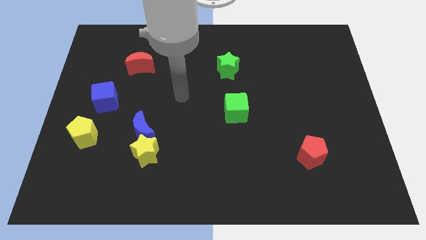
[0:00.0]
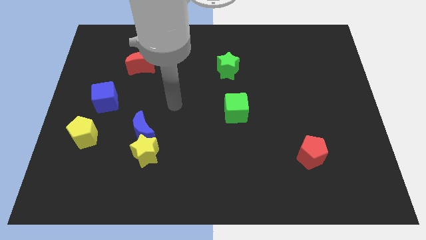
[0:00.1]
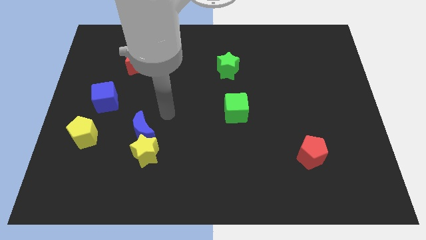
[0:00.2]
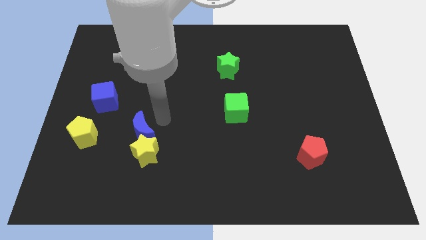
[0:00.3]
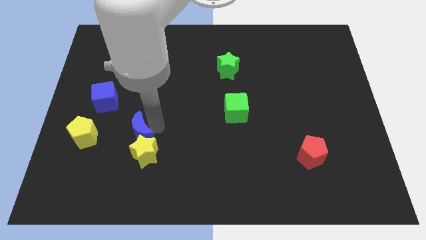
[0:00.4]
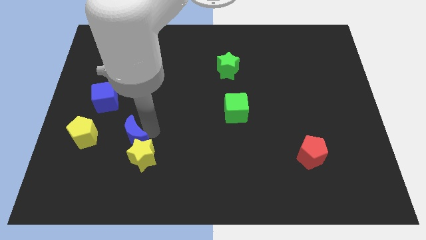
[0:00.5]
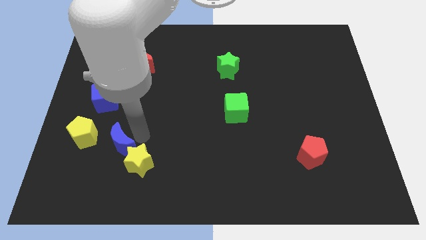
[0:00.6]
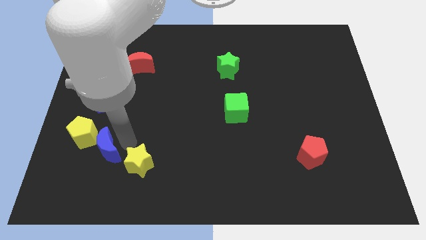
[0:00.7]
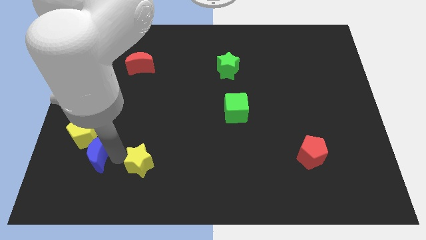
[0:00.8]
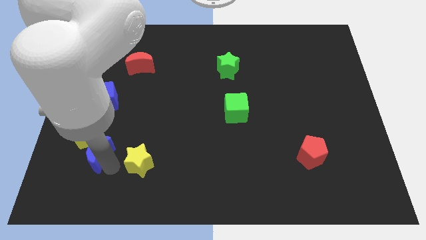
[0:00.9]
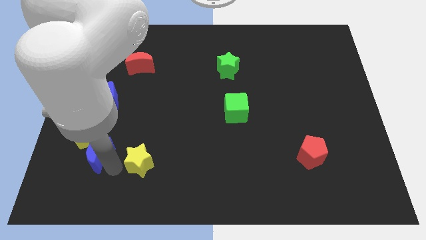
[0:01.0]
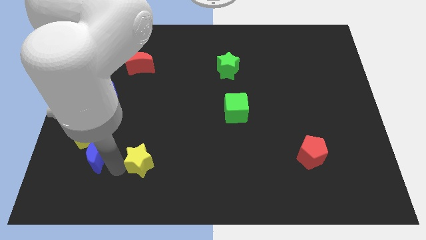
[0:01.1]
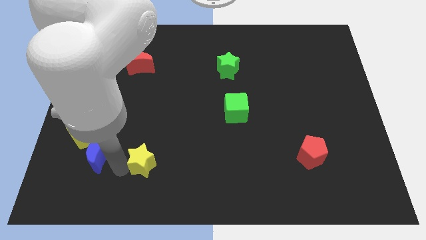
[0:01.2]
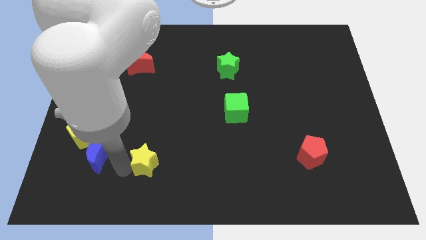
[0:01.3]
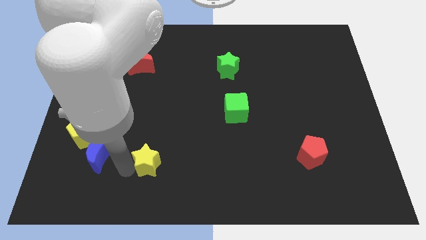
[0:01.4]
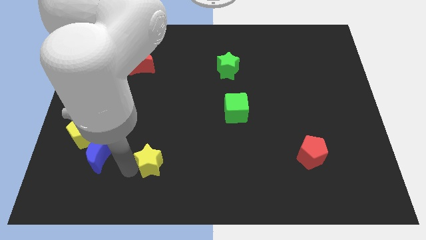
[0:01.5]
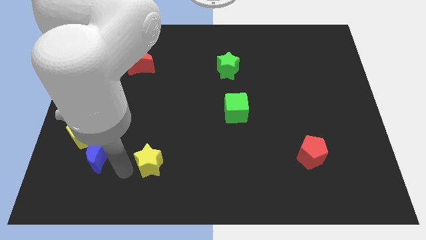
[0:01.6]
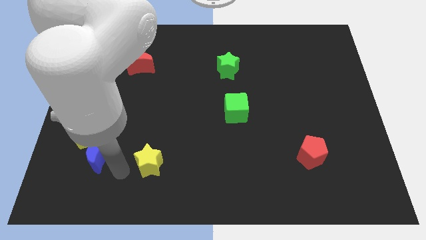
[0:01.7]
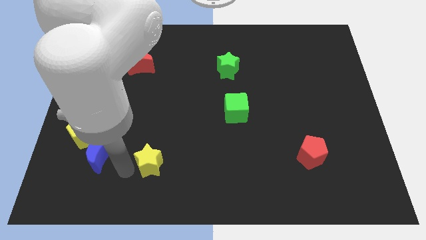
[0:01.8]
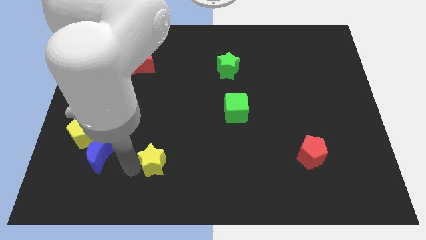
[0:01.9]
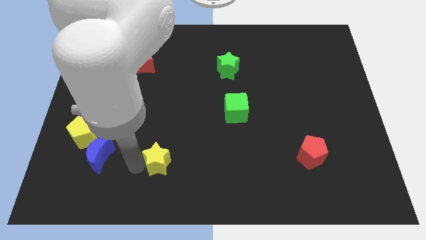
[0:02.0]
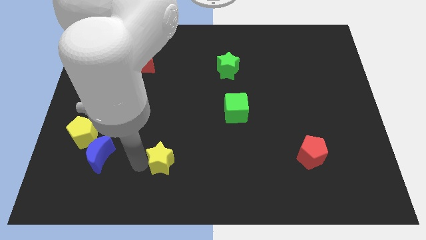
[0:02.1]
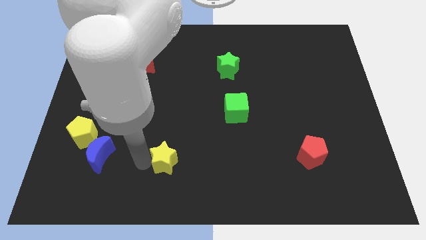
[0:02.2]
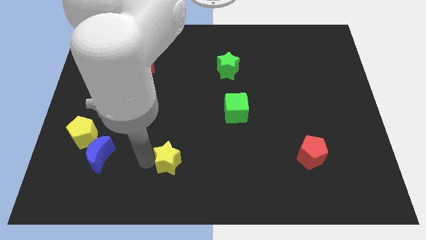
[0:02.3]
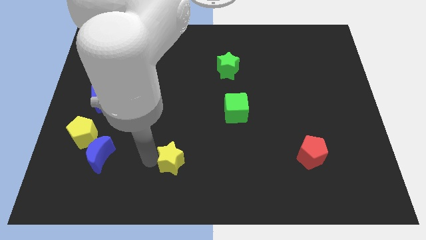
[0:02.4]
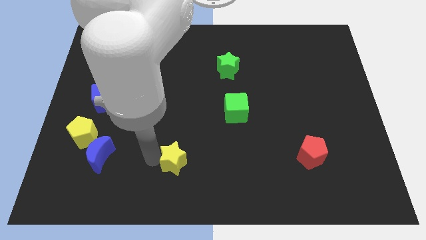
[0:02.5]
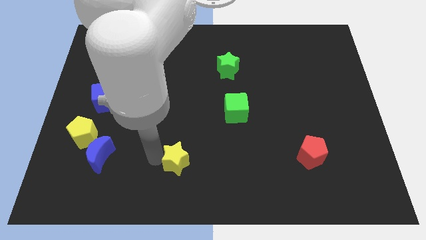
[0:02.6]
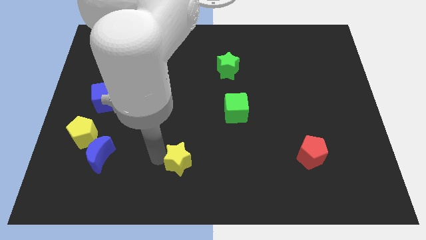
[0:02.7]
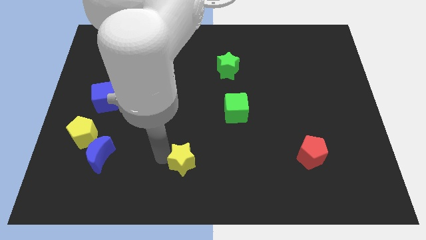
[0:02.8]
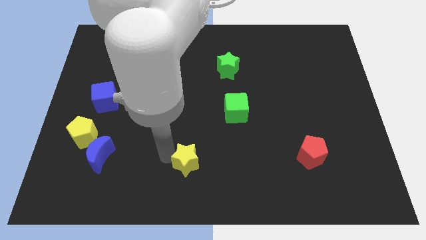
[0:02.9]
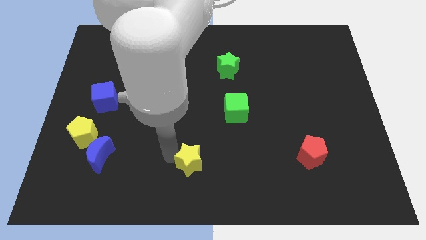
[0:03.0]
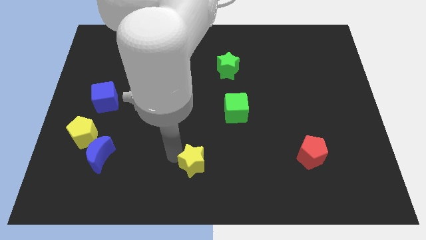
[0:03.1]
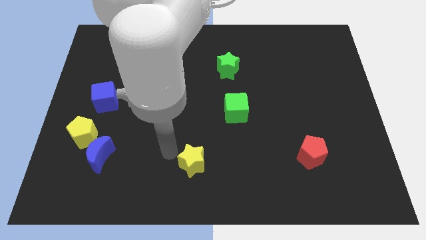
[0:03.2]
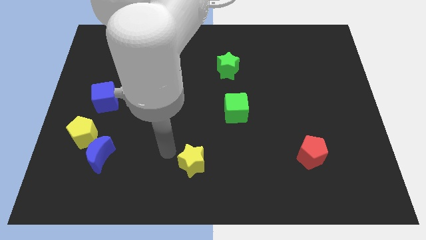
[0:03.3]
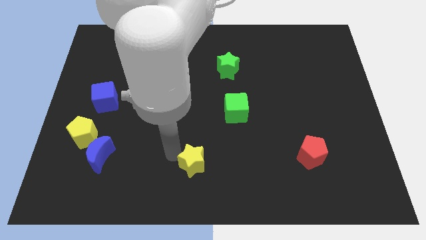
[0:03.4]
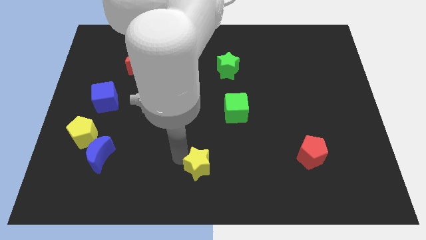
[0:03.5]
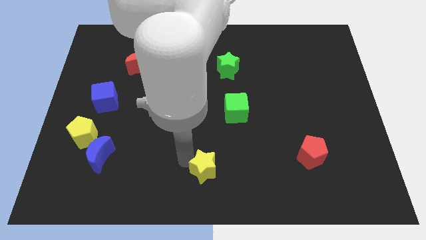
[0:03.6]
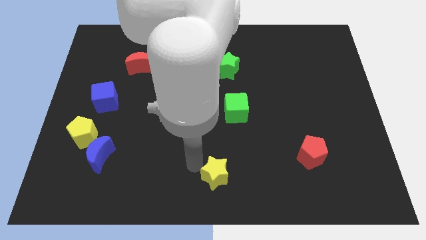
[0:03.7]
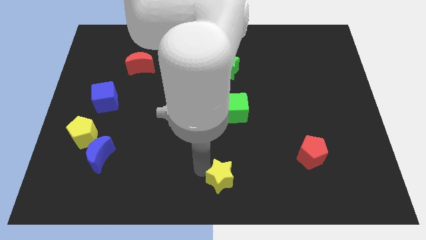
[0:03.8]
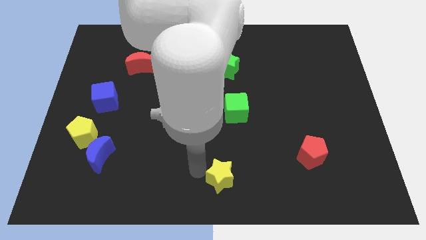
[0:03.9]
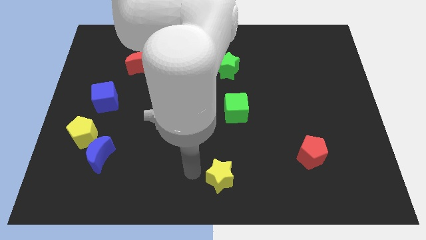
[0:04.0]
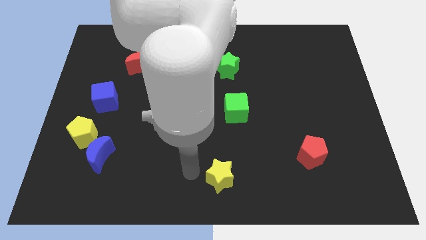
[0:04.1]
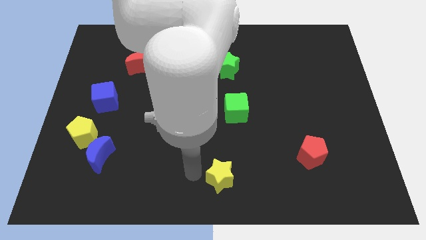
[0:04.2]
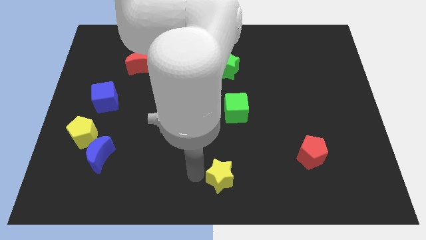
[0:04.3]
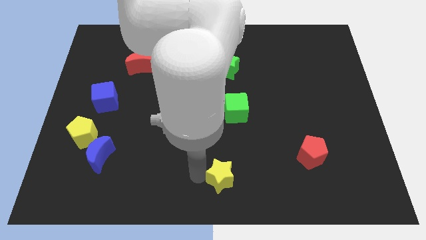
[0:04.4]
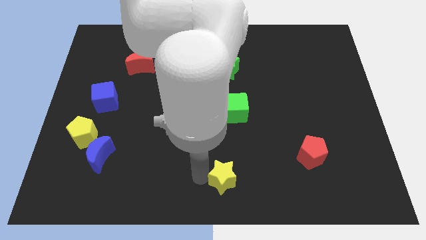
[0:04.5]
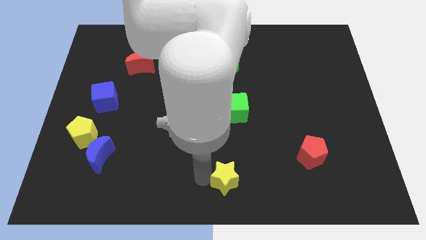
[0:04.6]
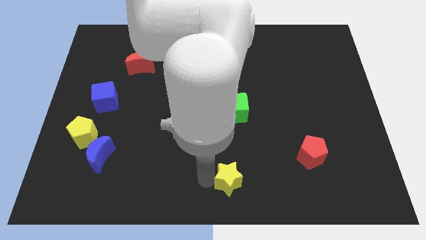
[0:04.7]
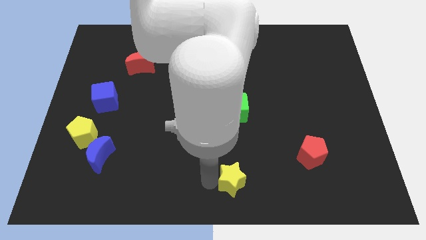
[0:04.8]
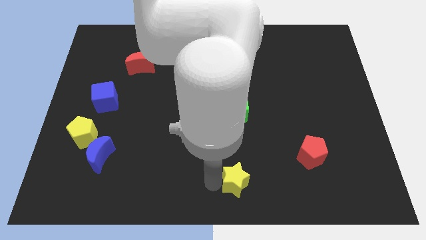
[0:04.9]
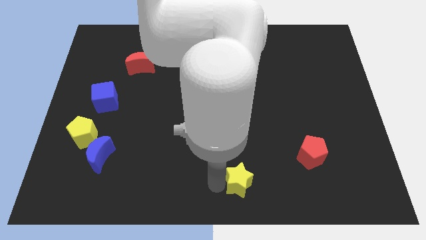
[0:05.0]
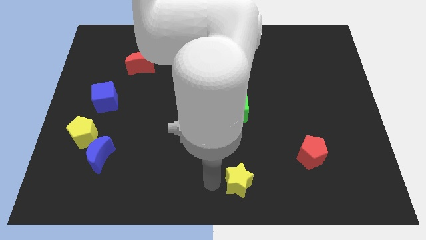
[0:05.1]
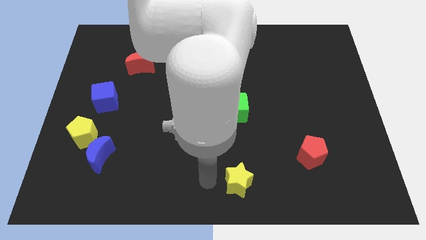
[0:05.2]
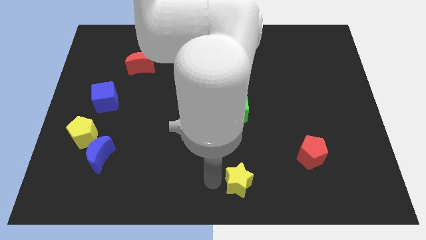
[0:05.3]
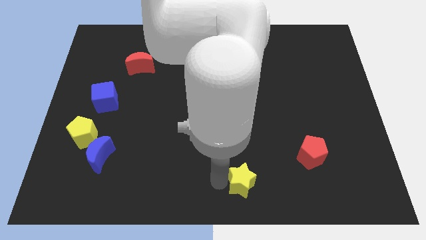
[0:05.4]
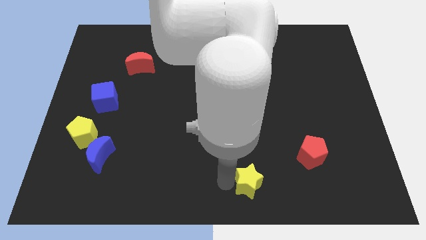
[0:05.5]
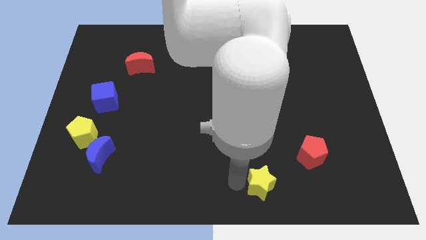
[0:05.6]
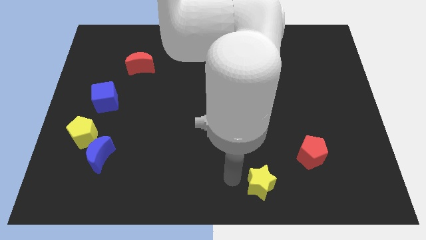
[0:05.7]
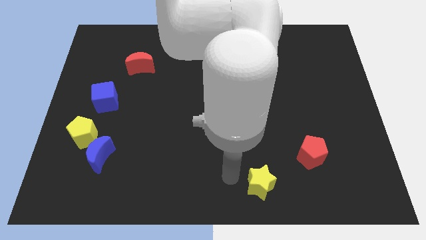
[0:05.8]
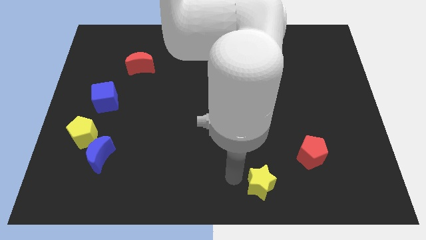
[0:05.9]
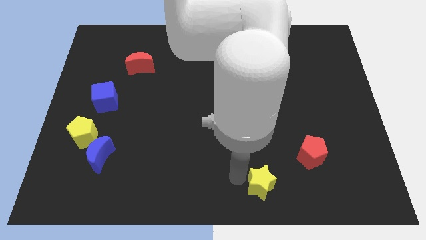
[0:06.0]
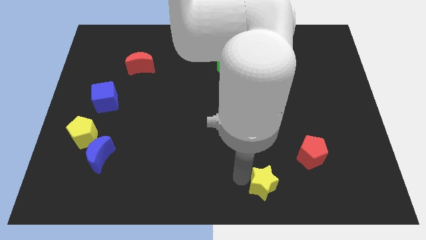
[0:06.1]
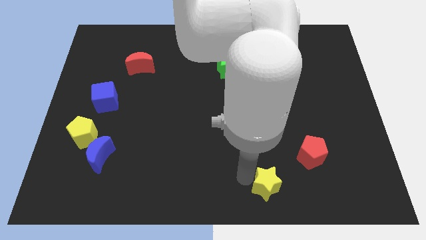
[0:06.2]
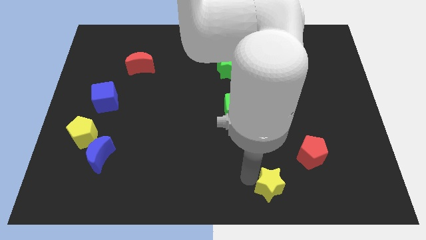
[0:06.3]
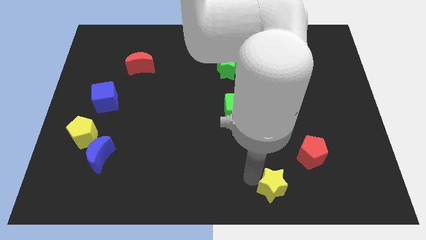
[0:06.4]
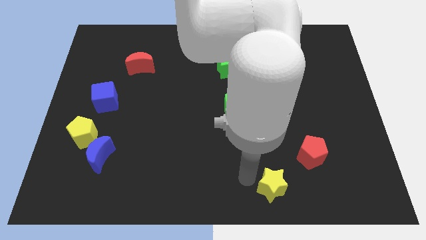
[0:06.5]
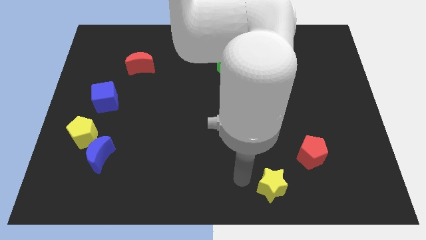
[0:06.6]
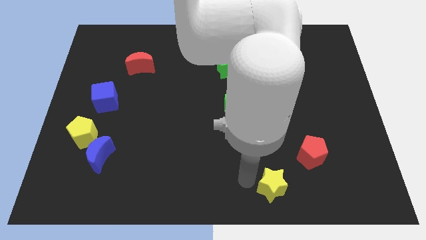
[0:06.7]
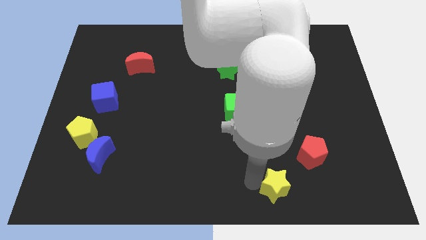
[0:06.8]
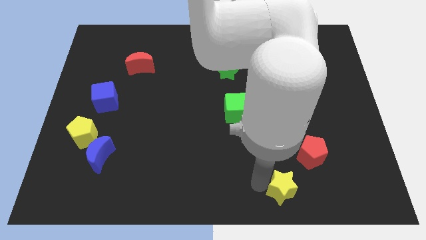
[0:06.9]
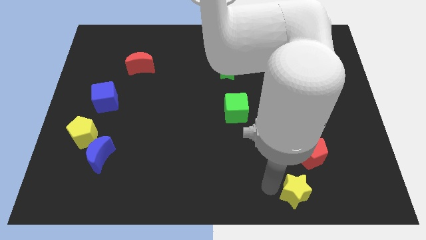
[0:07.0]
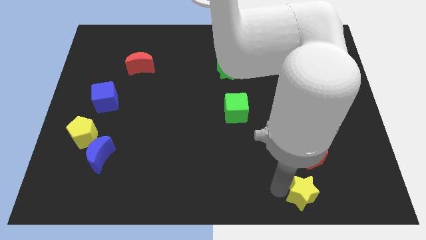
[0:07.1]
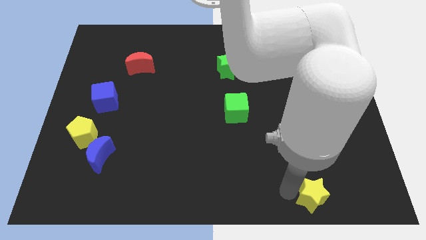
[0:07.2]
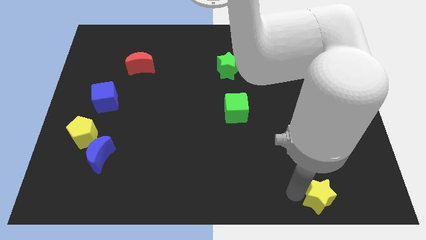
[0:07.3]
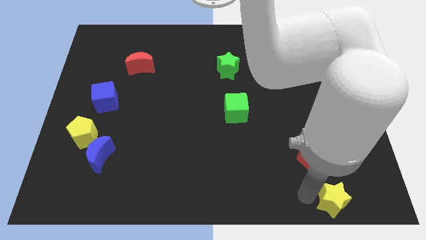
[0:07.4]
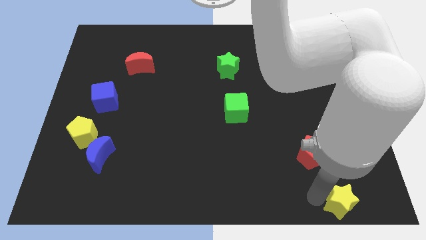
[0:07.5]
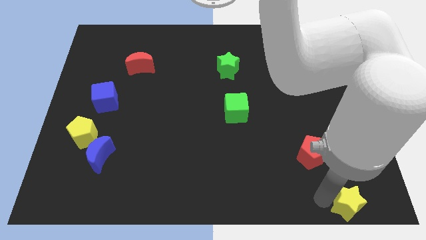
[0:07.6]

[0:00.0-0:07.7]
slide the yellow star to the bottom right corner

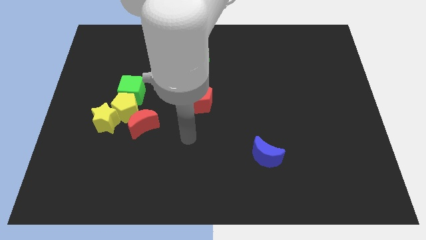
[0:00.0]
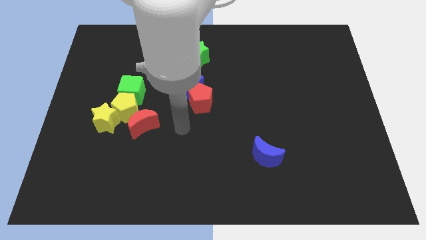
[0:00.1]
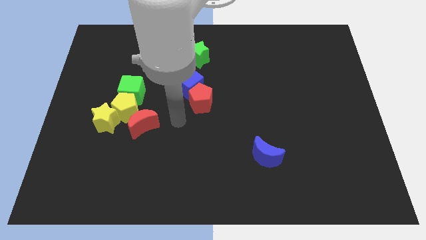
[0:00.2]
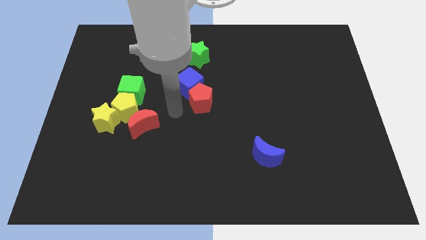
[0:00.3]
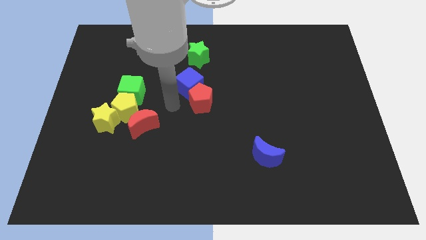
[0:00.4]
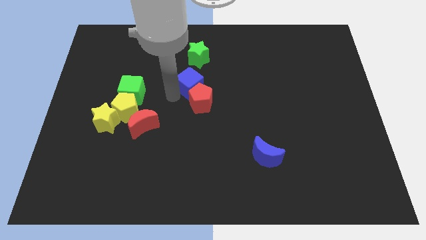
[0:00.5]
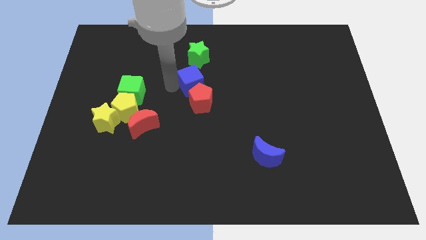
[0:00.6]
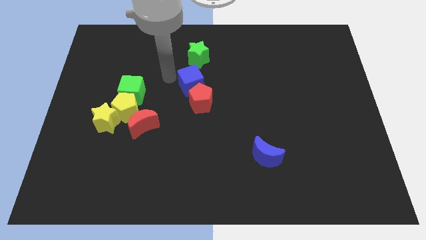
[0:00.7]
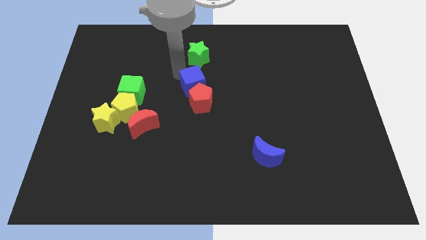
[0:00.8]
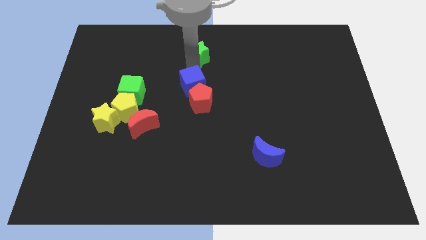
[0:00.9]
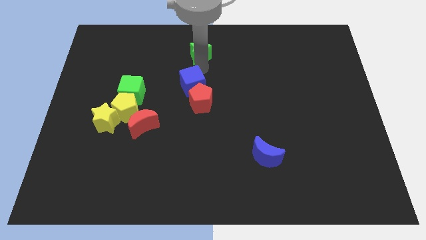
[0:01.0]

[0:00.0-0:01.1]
put the green star to the towards your base
